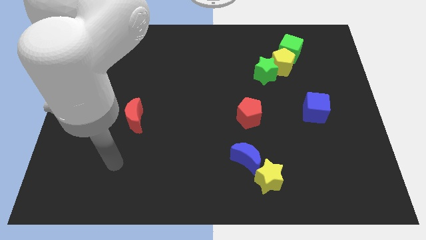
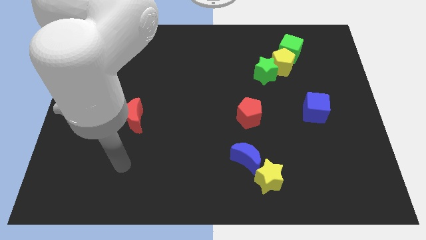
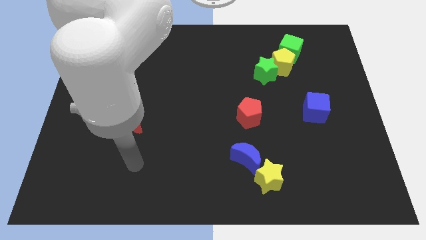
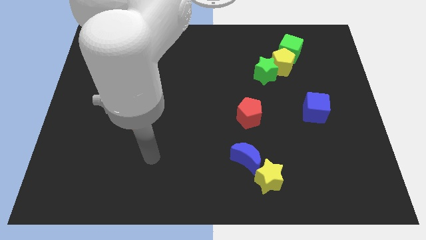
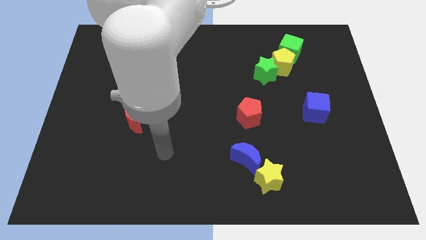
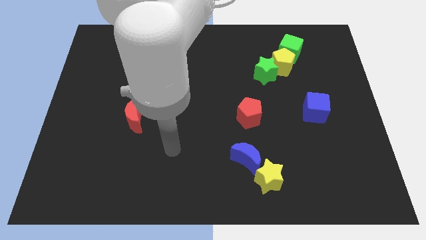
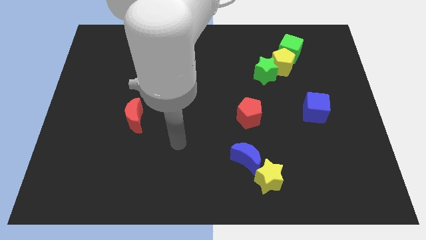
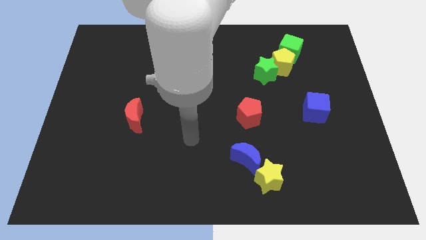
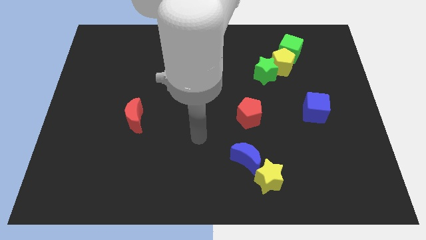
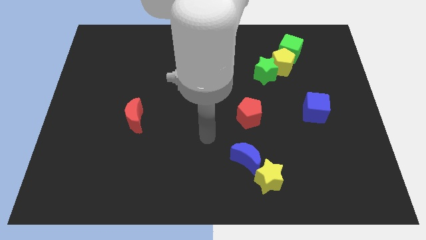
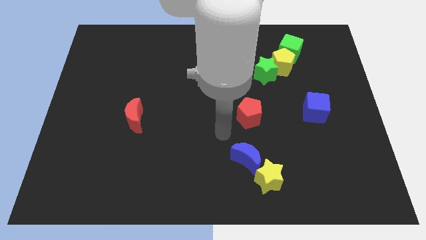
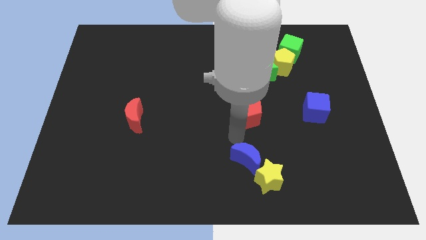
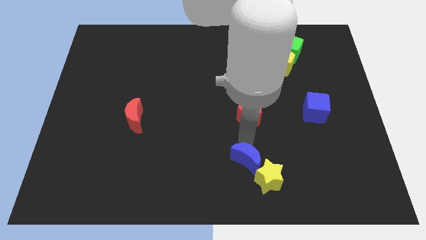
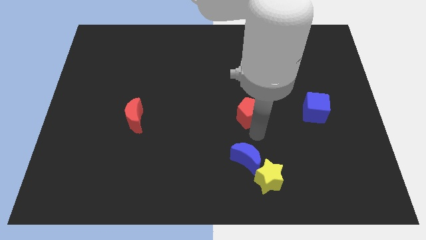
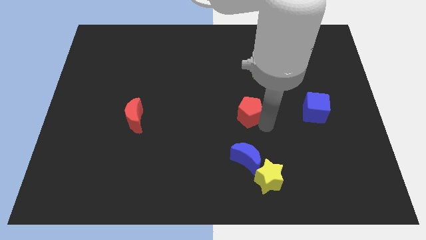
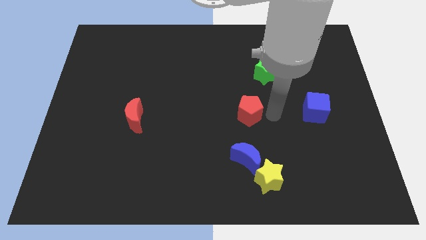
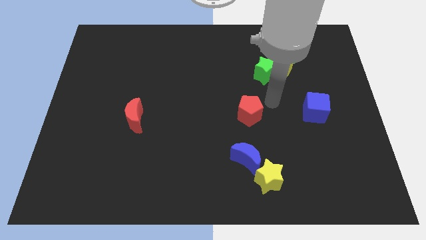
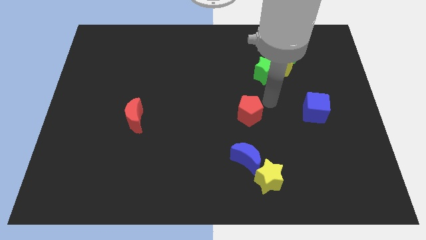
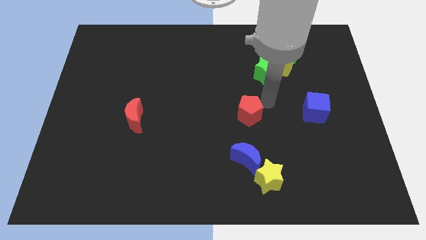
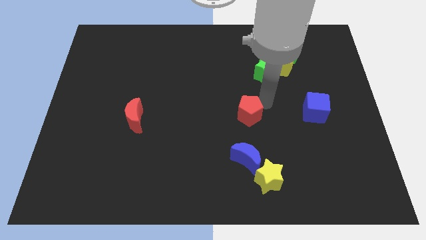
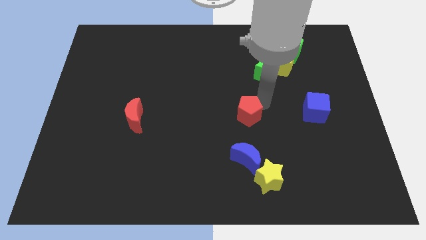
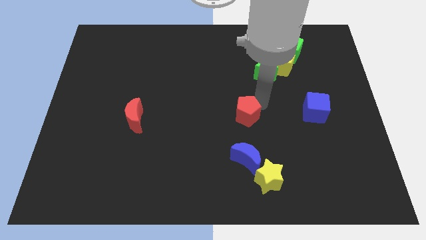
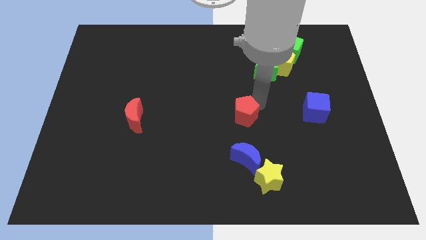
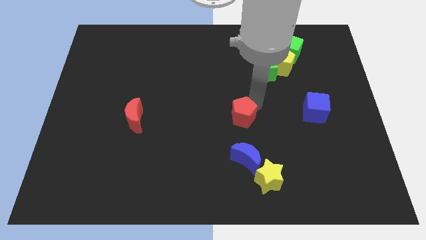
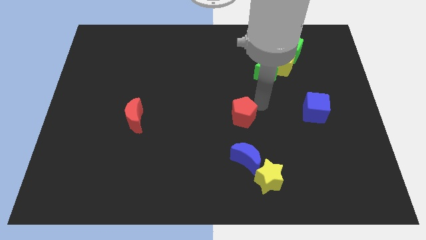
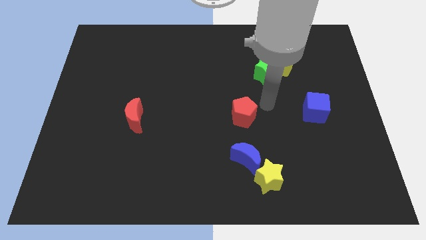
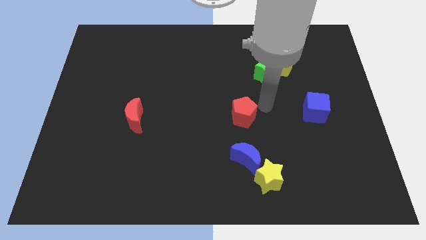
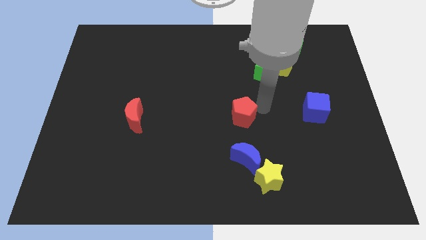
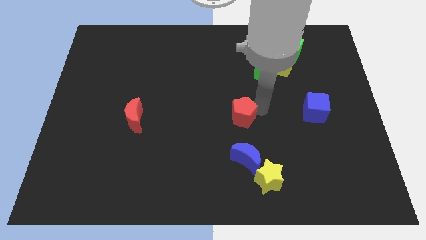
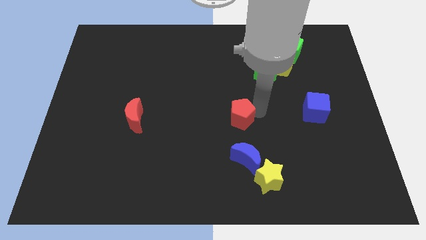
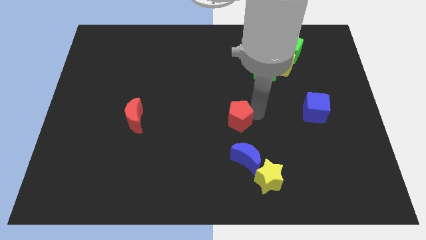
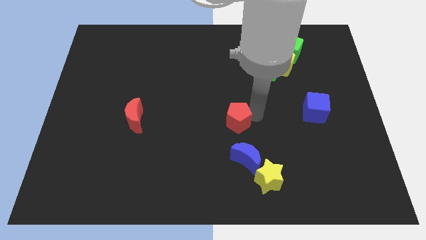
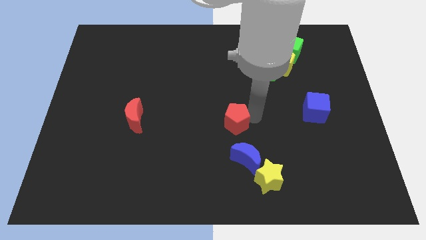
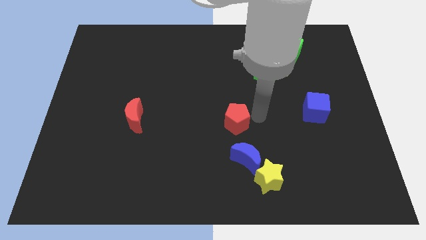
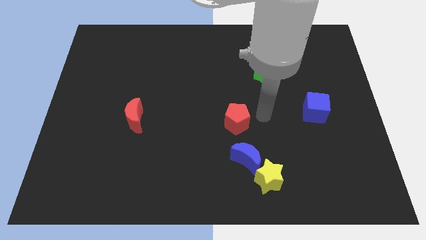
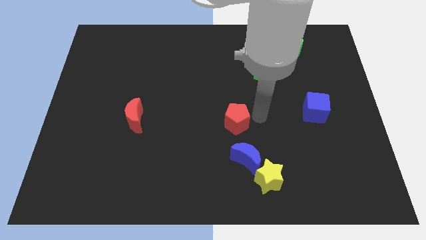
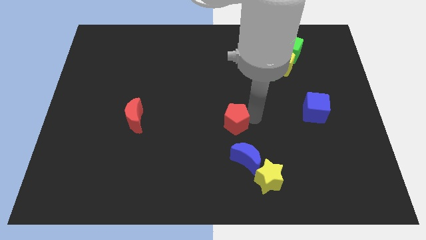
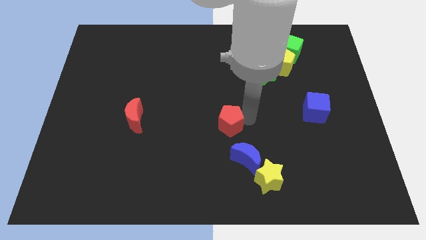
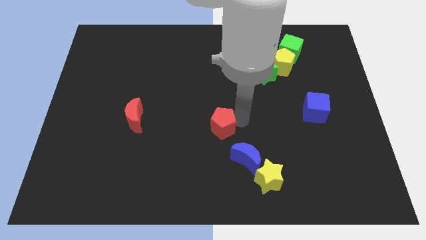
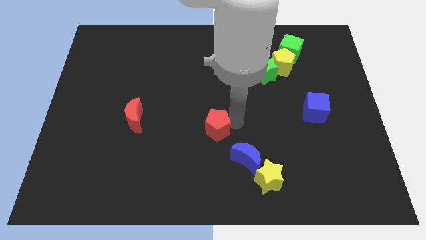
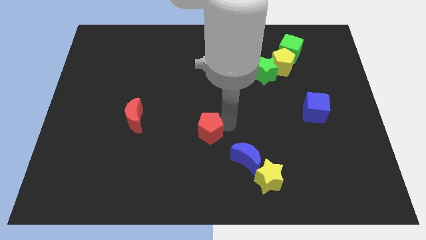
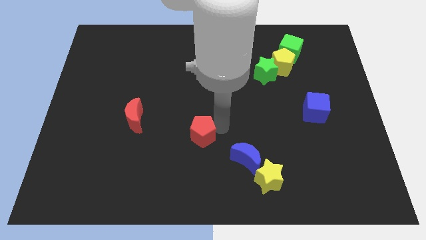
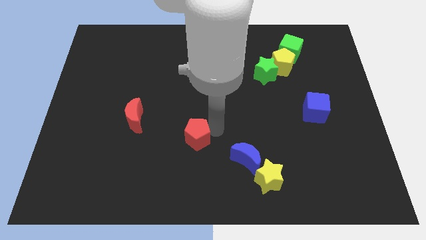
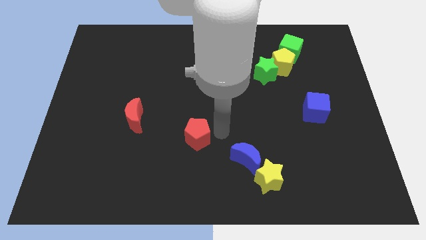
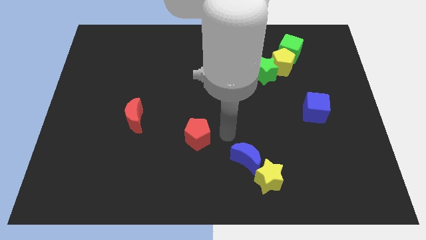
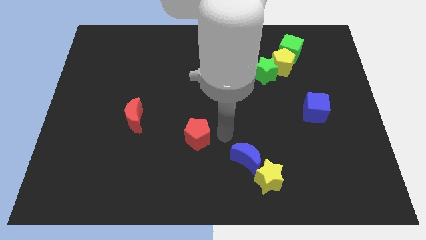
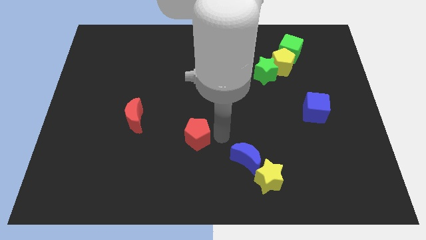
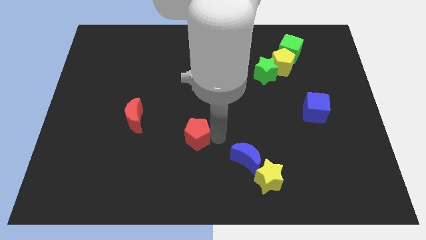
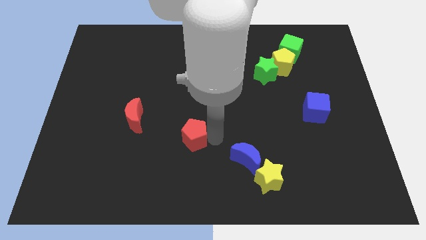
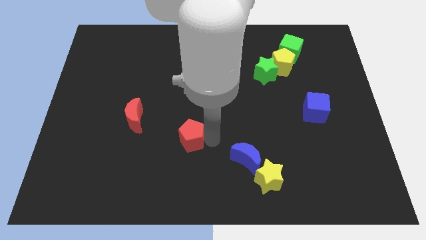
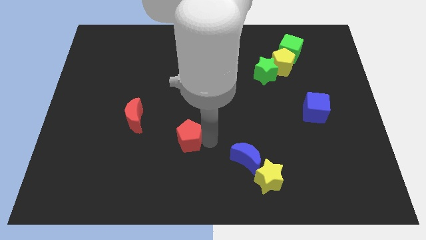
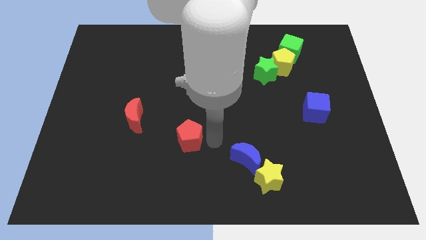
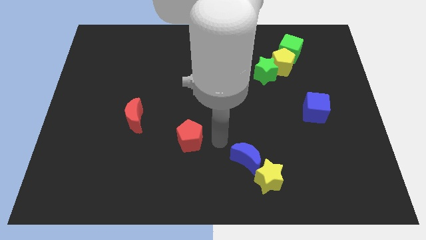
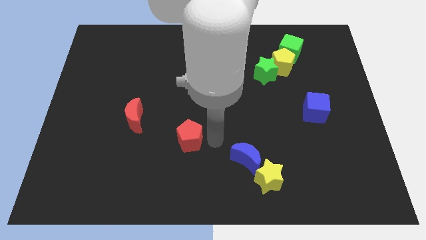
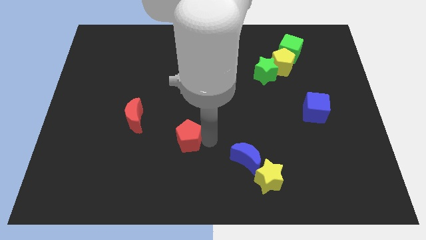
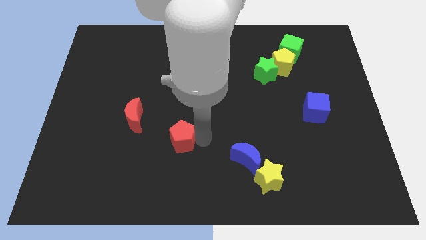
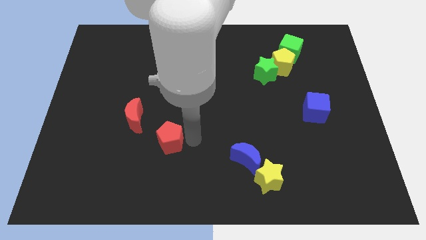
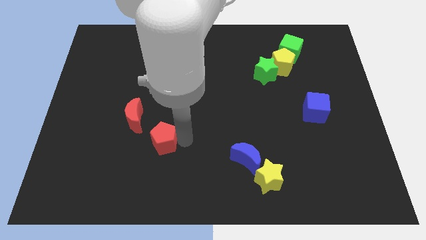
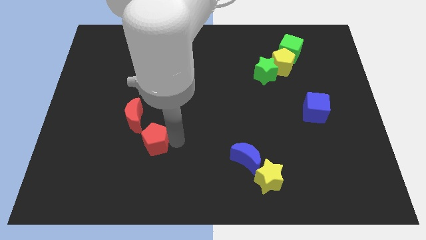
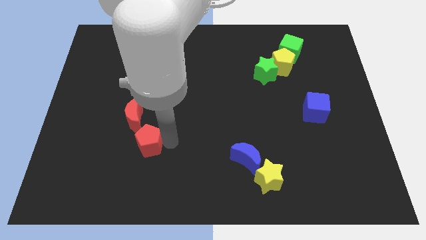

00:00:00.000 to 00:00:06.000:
slide the red pentagon left

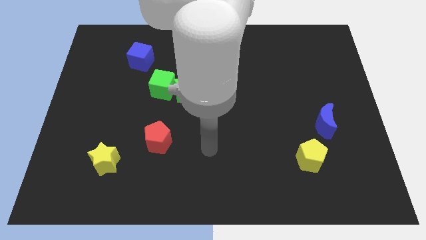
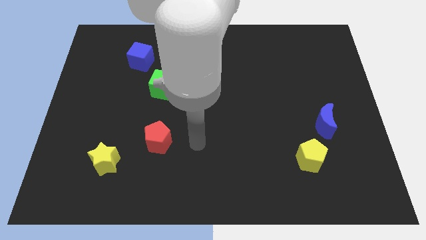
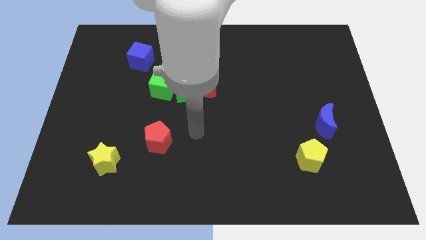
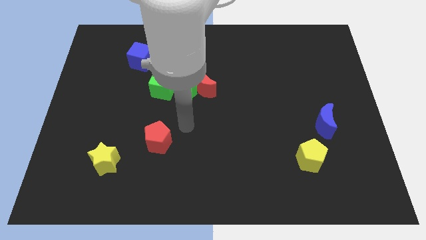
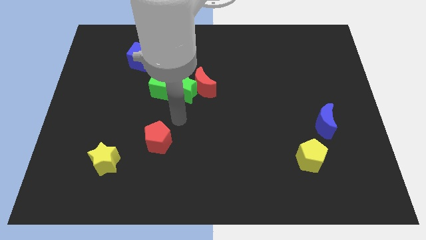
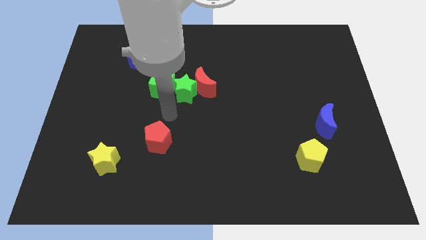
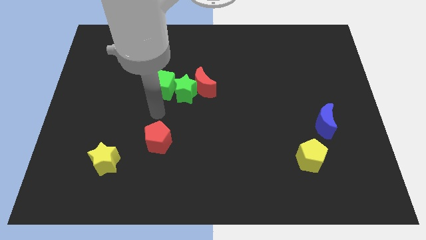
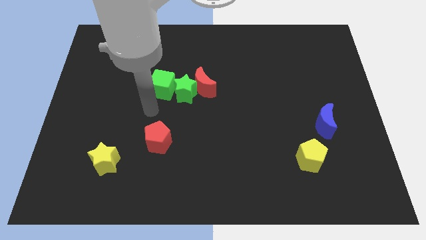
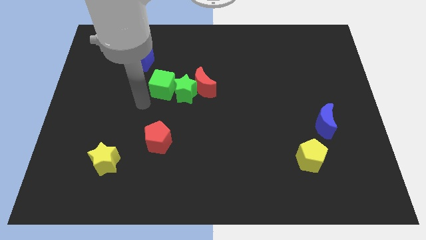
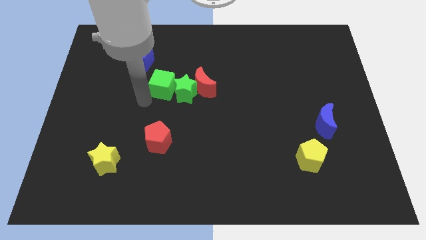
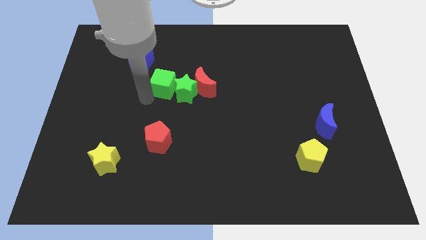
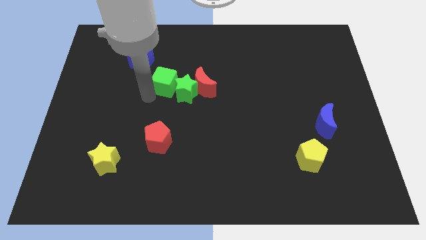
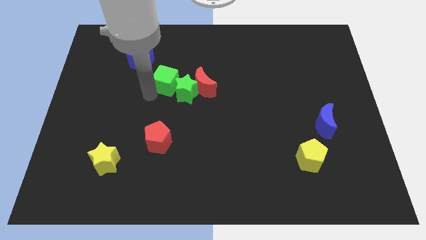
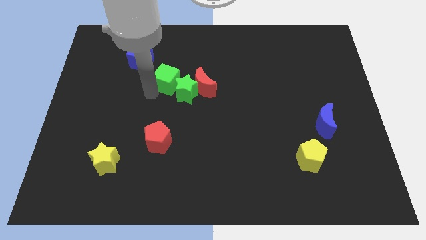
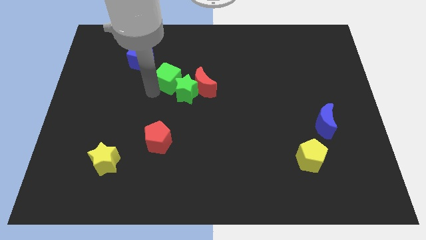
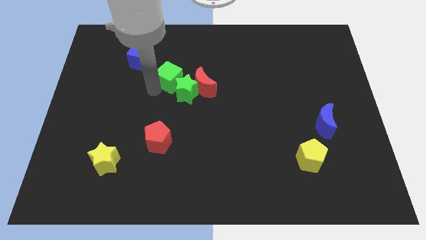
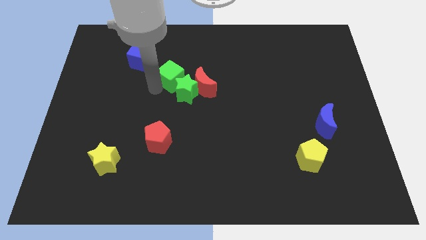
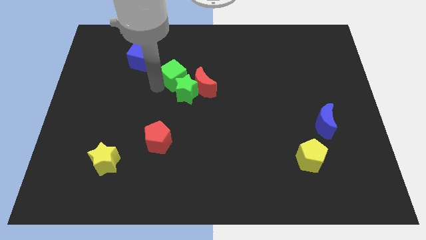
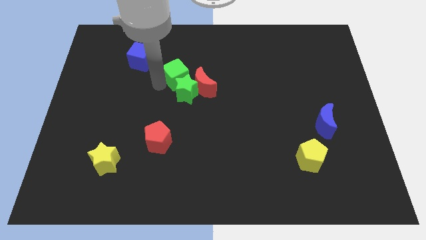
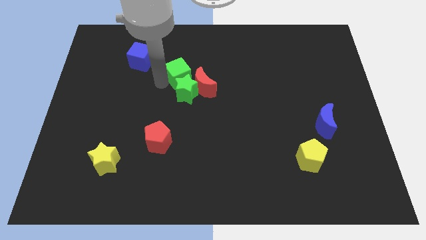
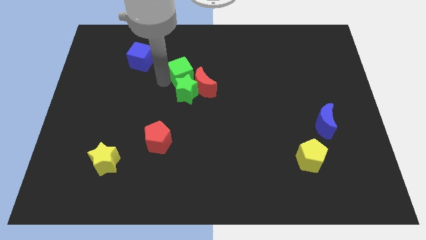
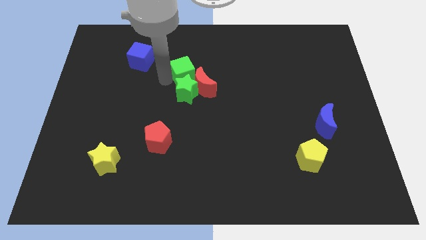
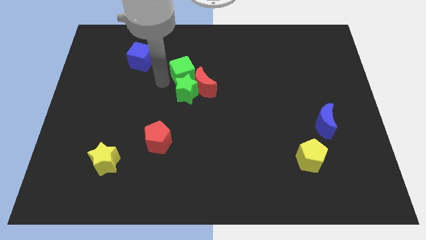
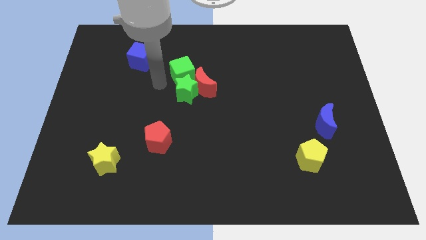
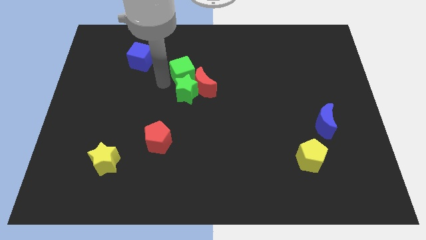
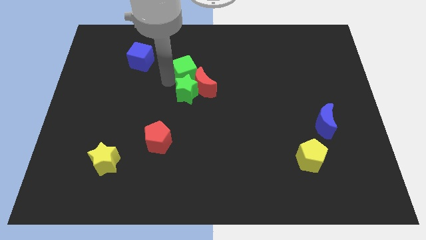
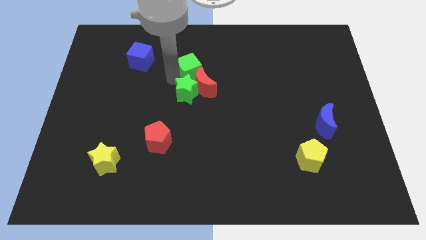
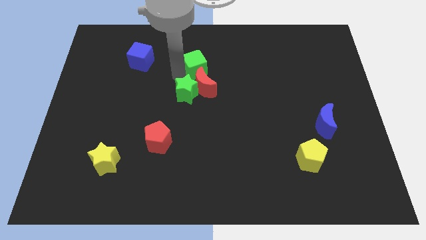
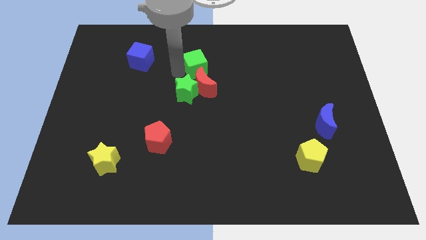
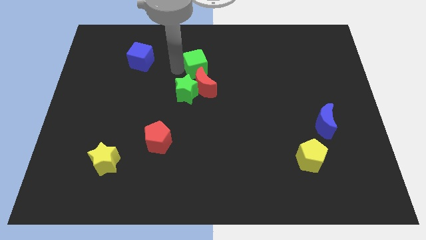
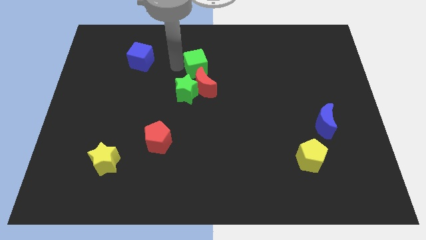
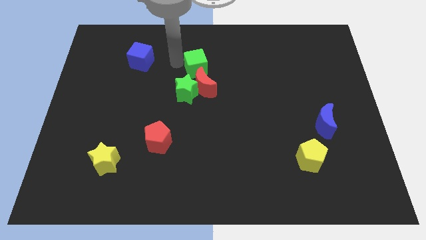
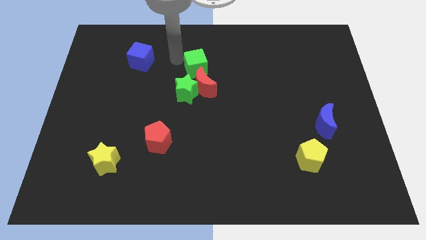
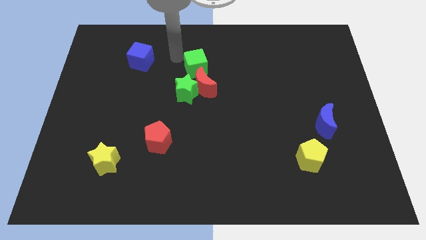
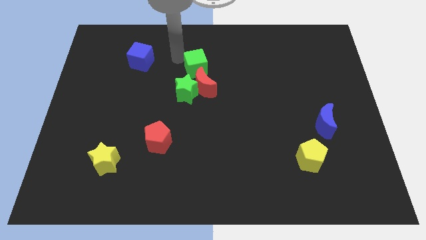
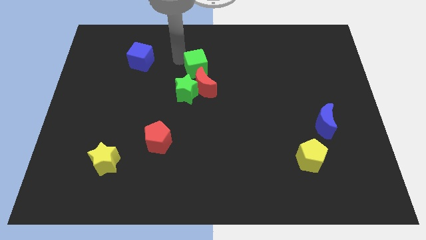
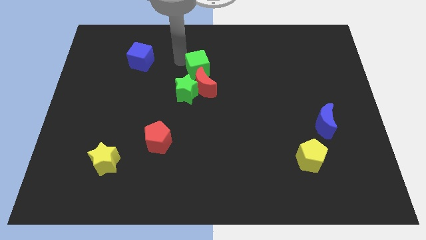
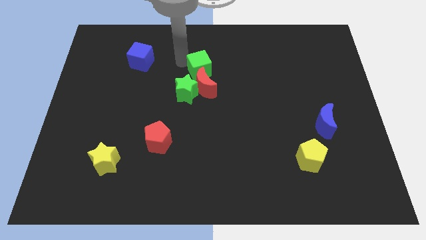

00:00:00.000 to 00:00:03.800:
slightly slide the green cube to the right
